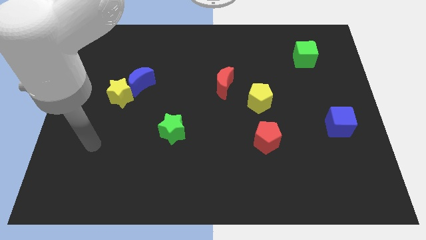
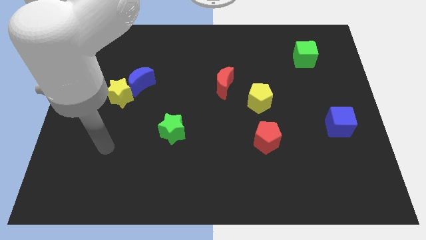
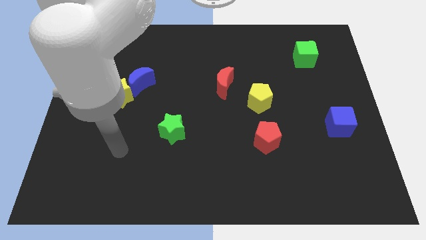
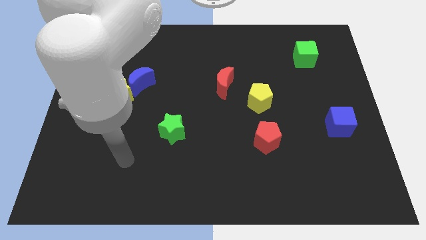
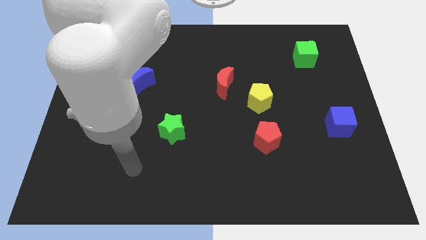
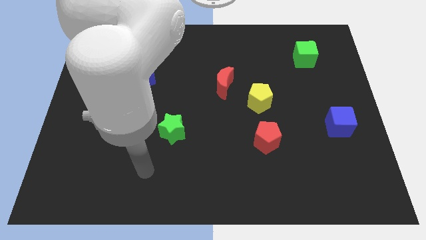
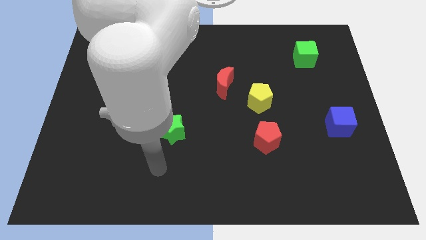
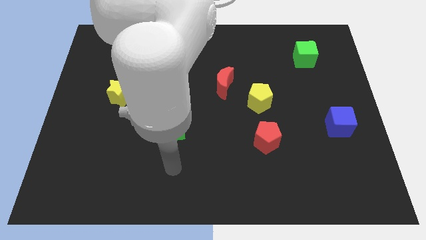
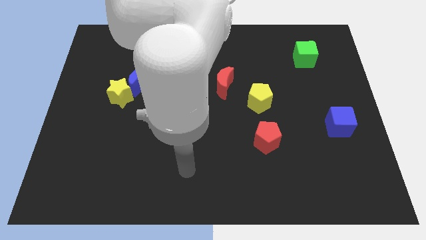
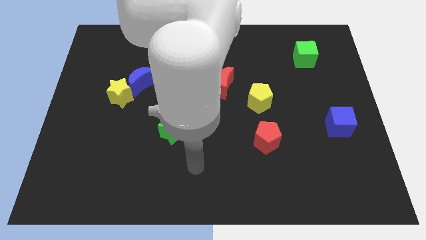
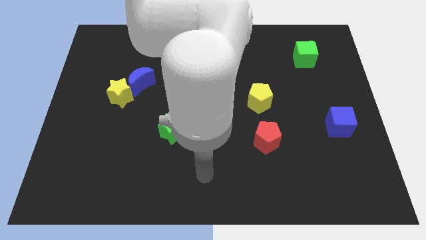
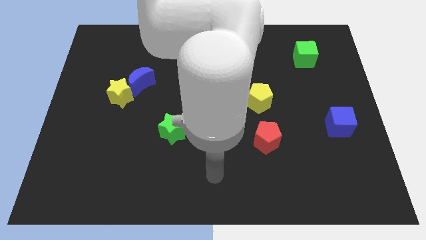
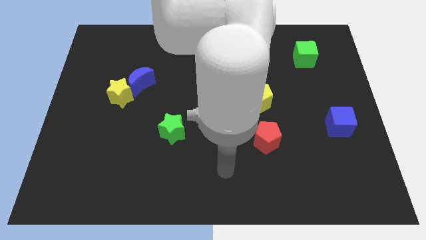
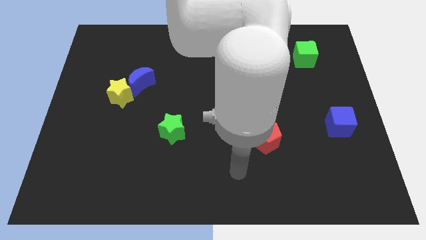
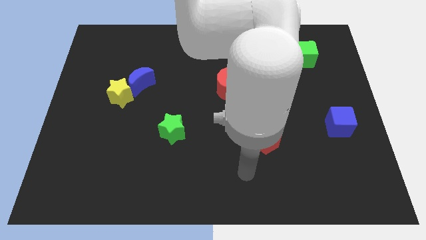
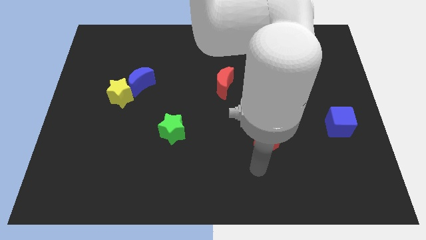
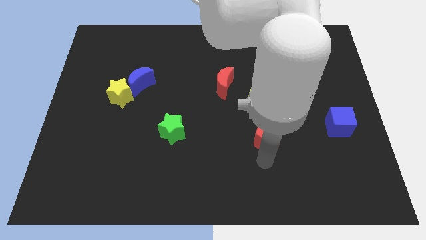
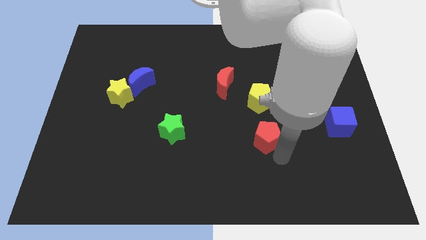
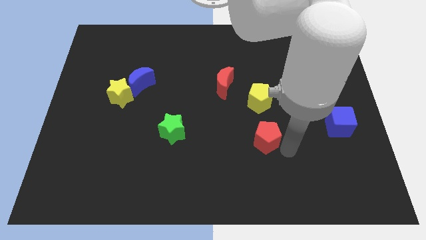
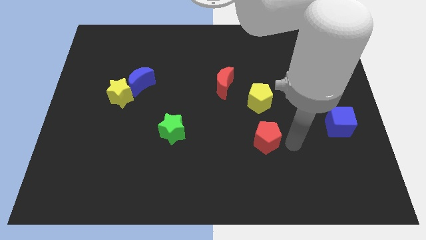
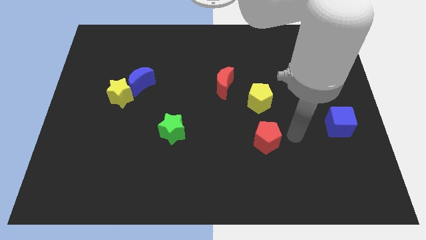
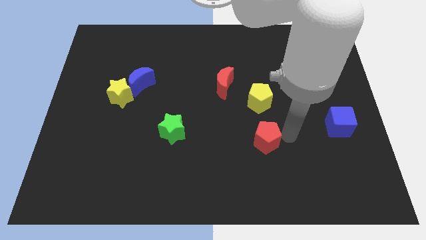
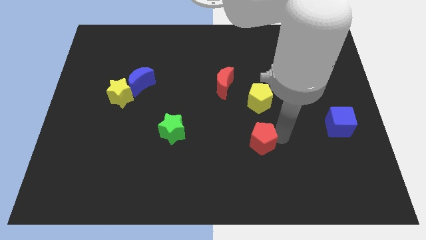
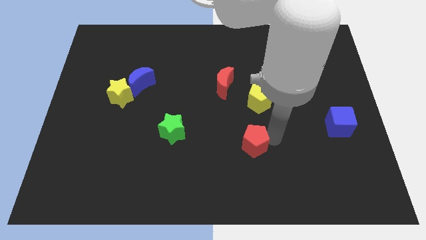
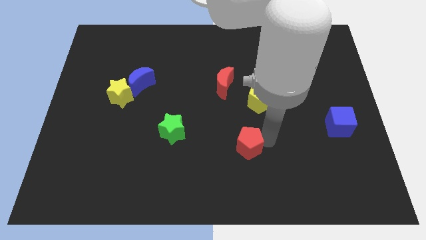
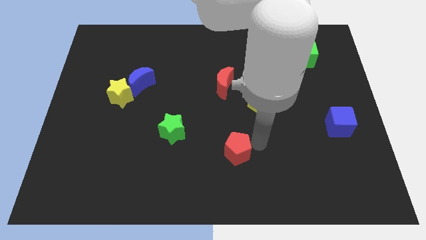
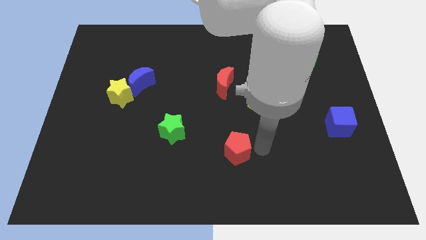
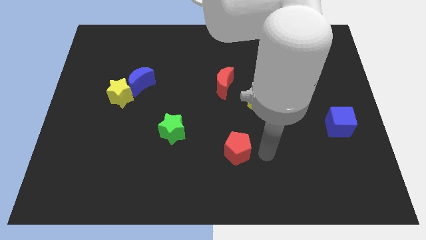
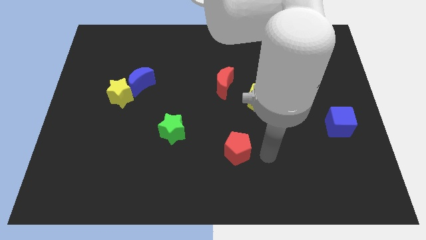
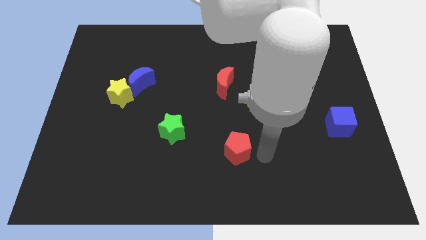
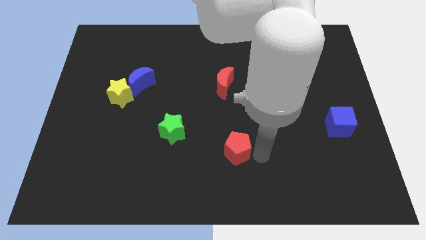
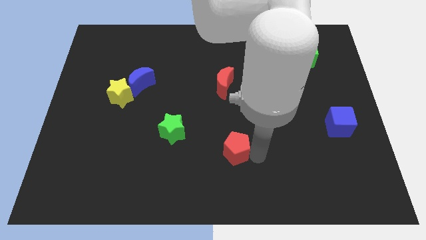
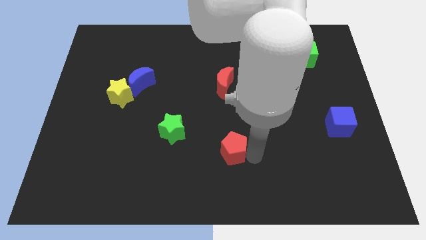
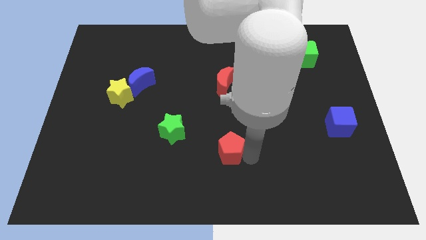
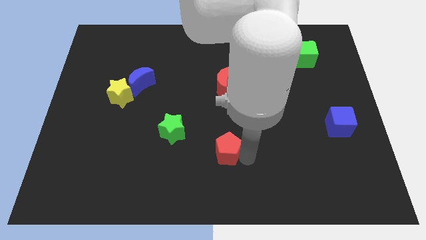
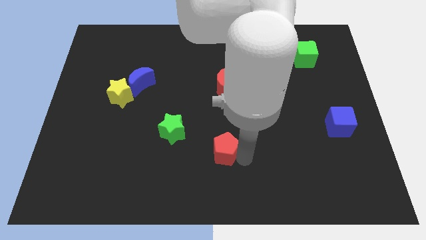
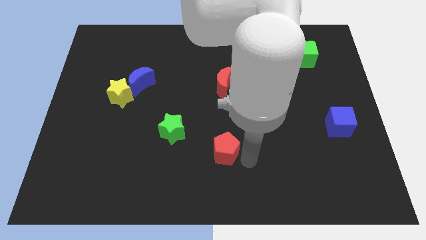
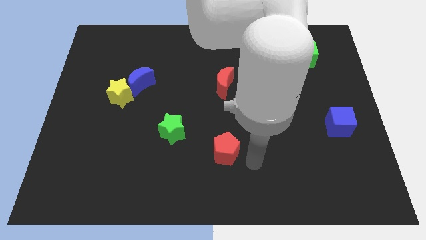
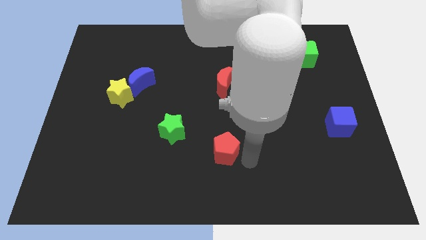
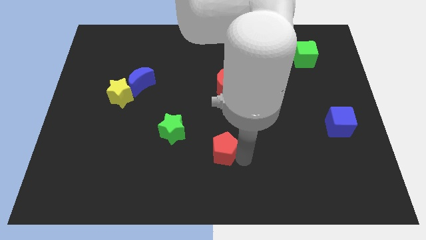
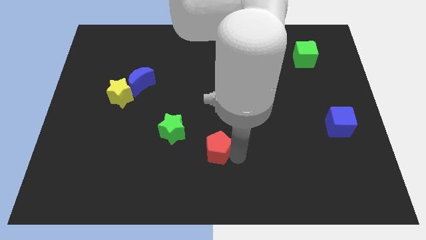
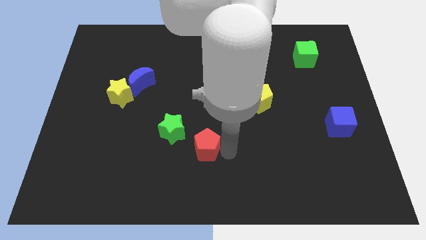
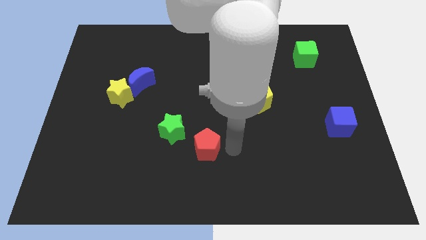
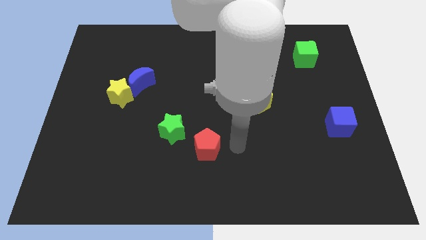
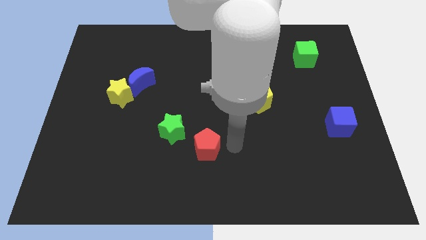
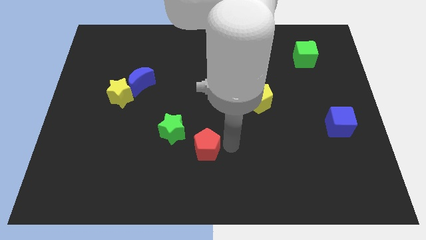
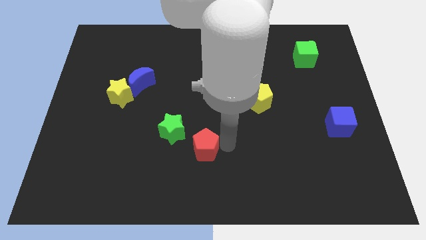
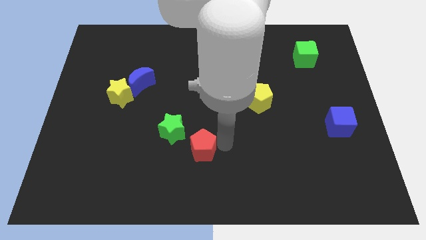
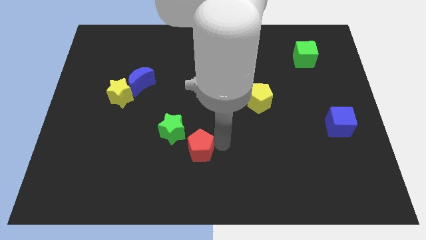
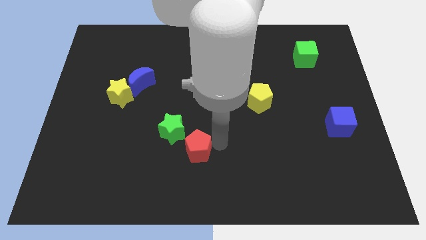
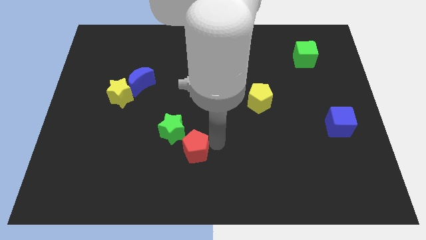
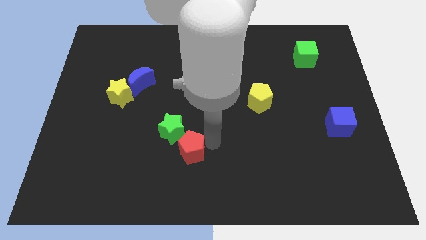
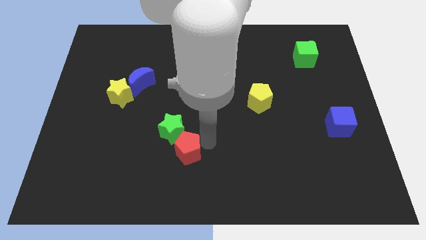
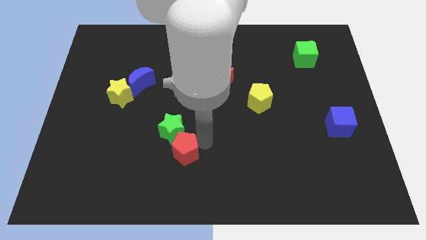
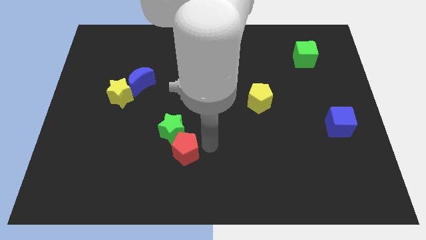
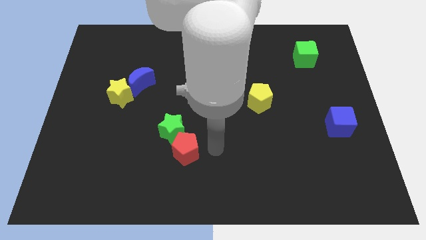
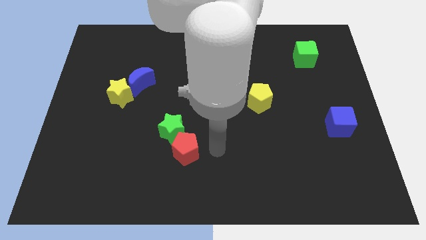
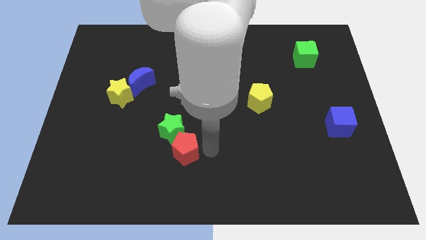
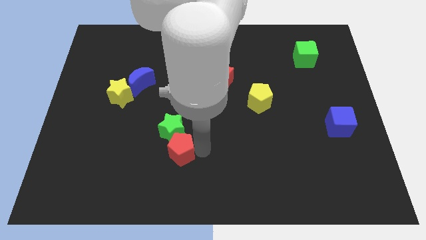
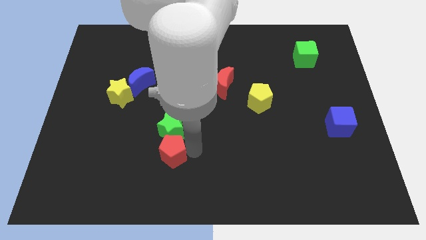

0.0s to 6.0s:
push the red pentagon left

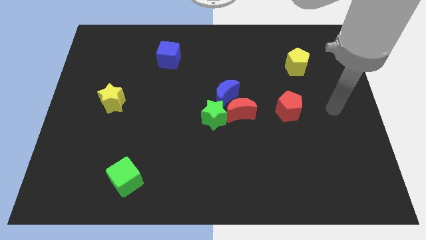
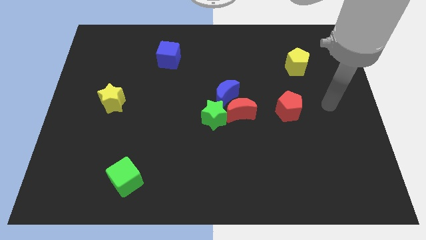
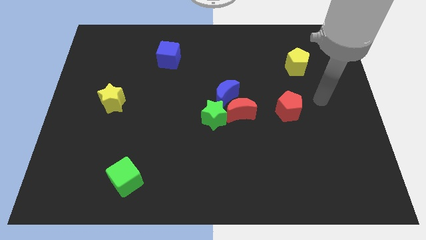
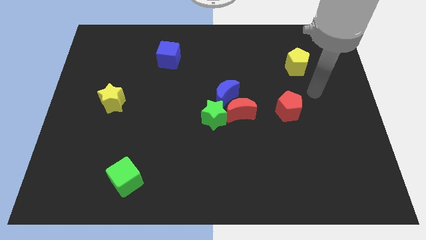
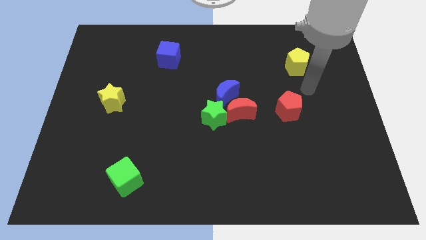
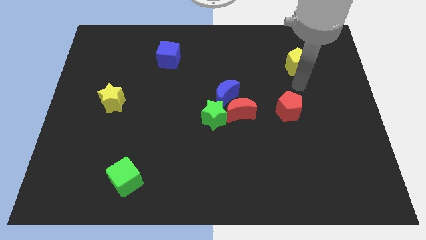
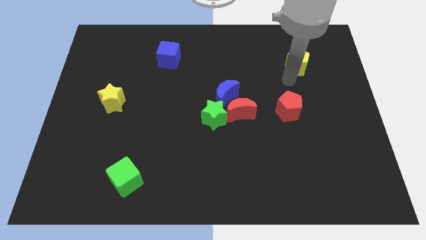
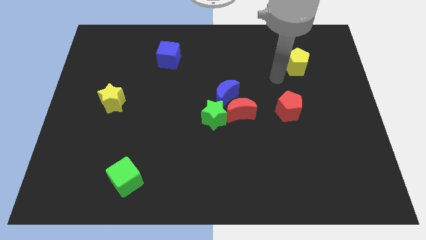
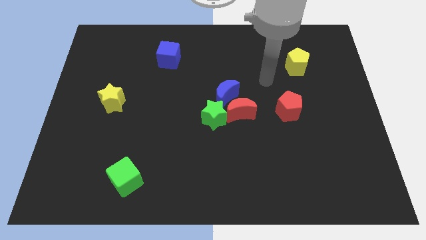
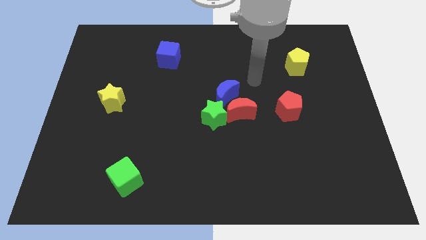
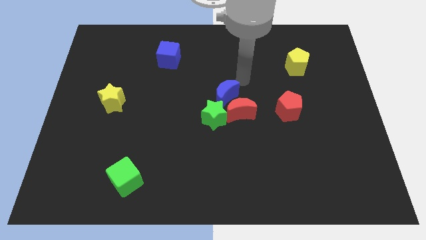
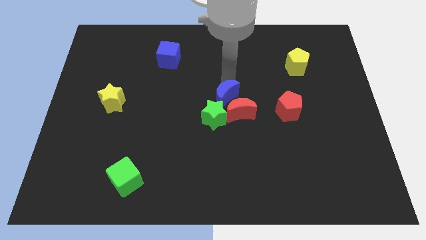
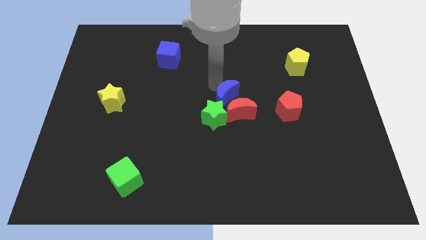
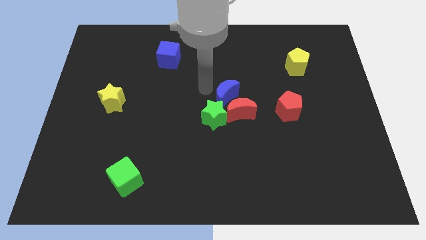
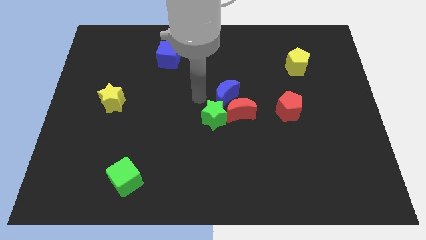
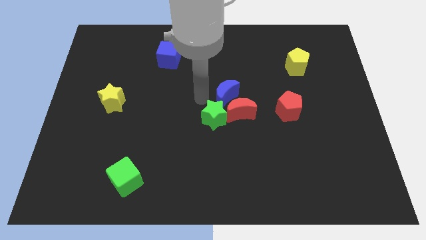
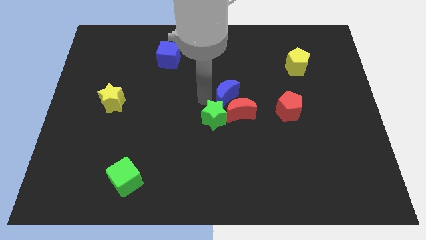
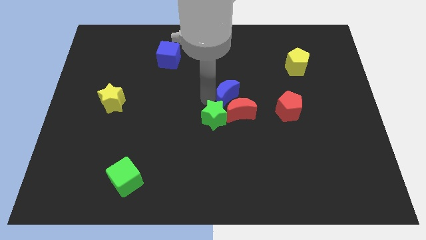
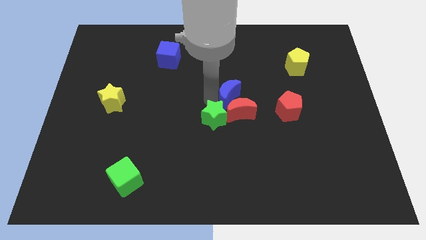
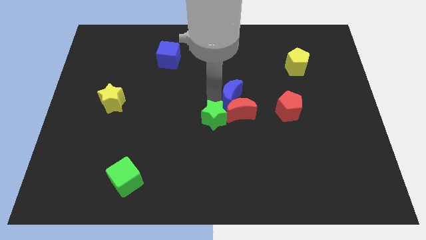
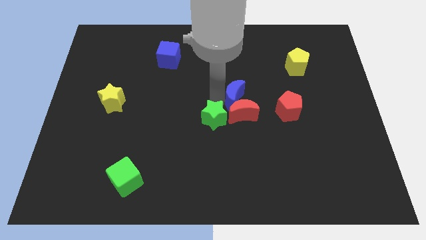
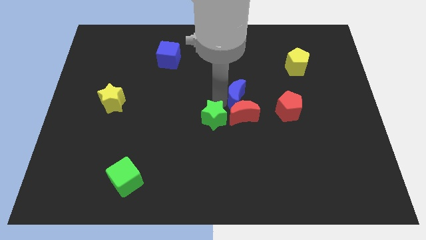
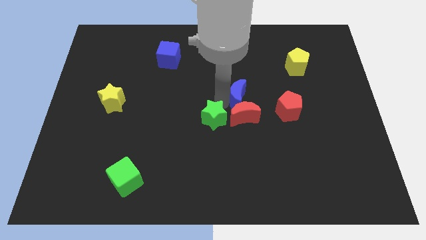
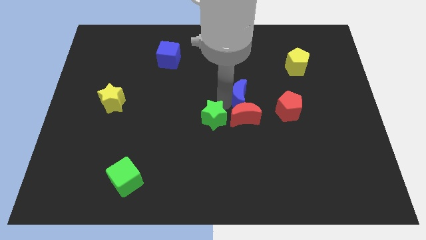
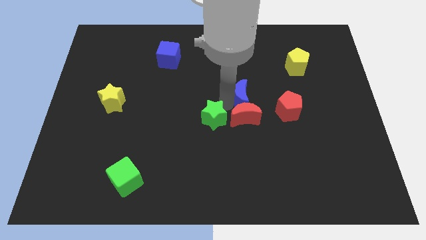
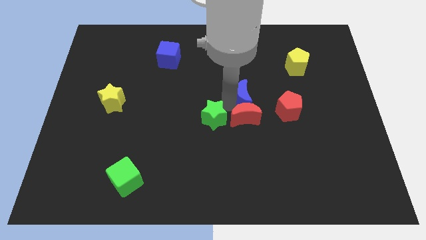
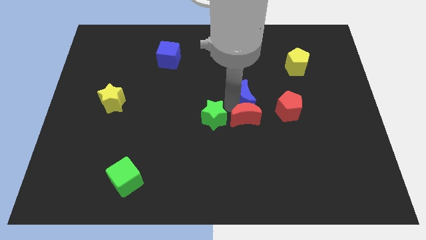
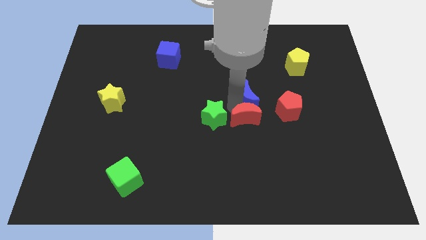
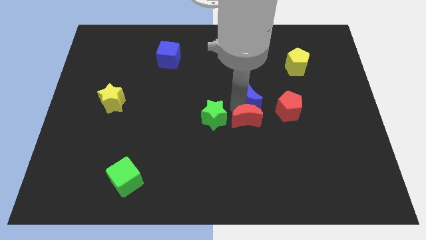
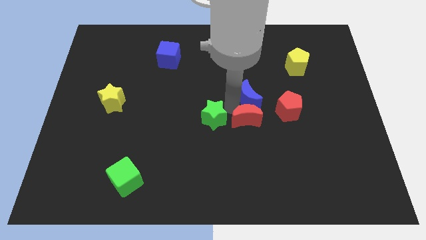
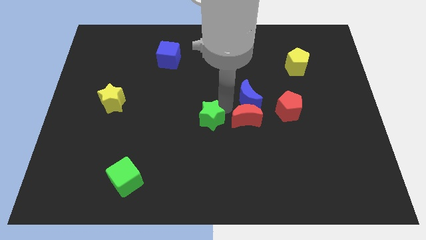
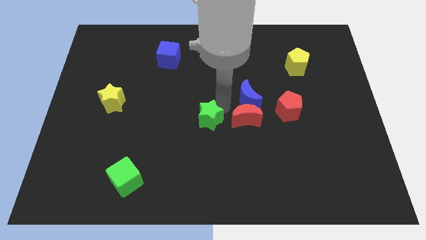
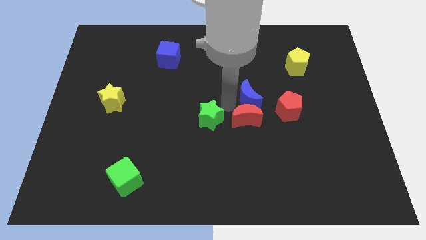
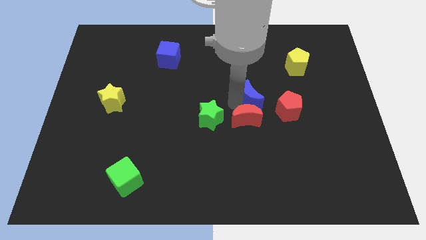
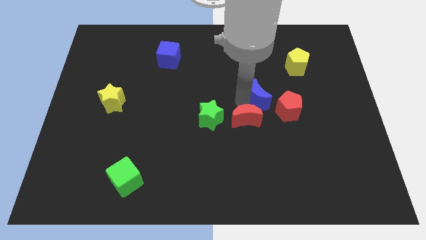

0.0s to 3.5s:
move the blue moon to the right a little
